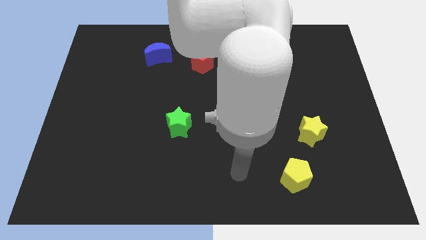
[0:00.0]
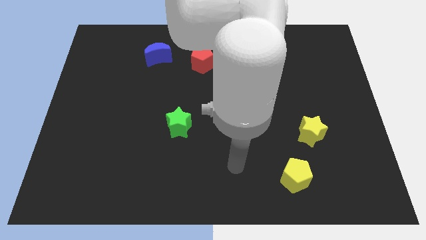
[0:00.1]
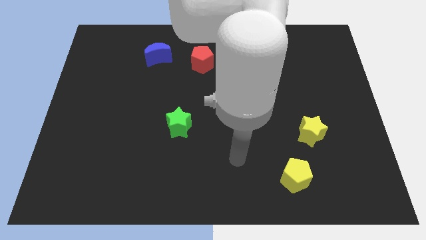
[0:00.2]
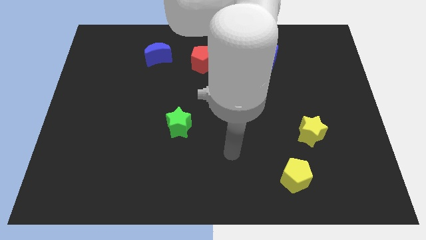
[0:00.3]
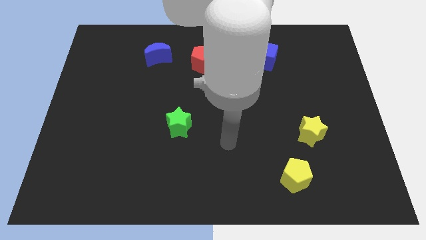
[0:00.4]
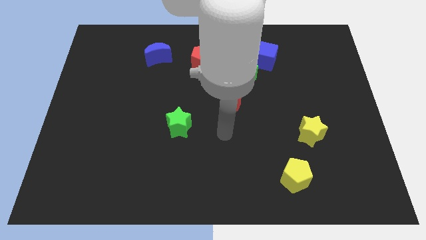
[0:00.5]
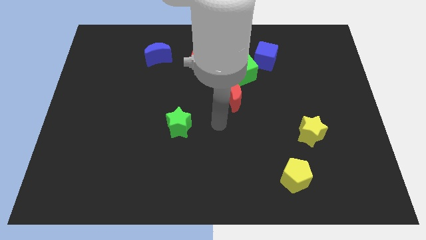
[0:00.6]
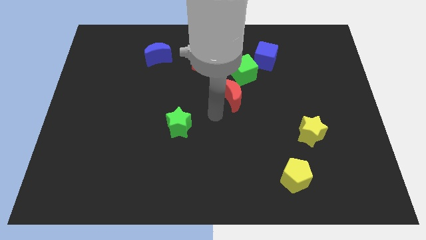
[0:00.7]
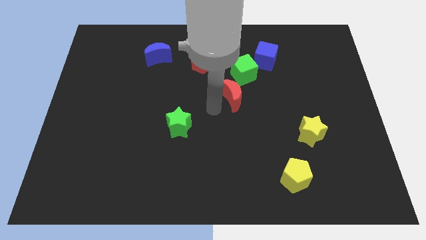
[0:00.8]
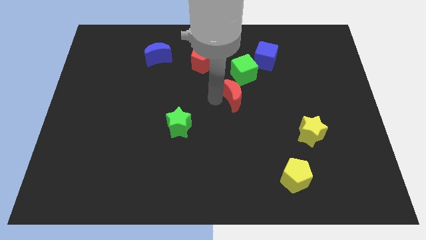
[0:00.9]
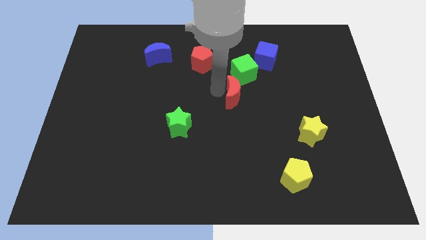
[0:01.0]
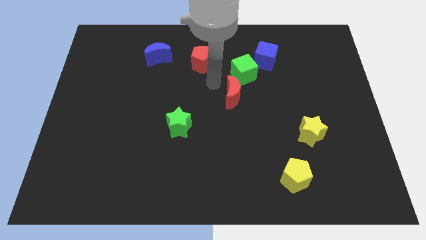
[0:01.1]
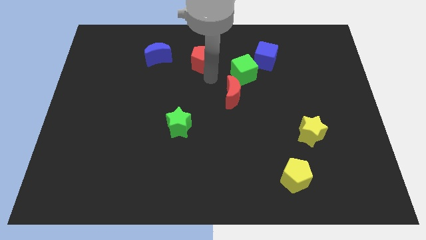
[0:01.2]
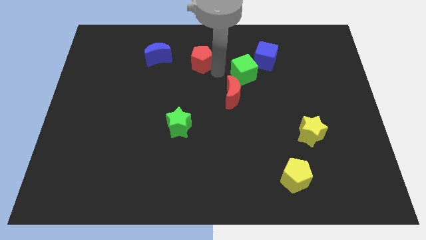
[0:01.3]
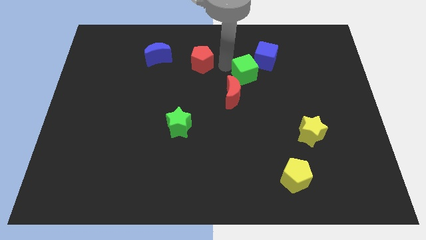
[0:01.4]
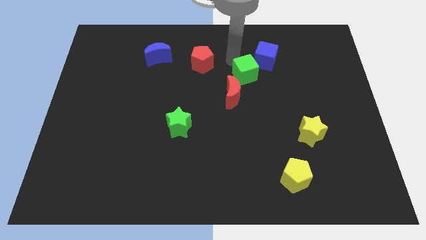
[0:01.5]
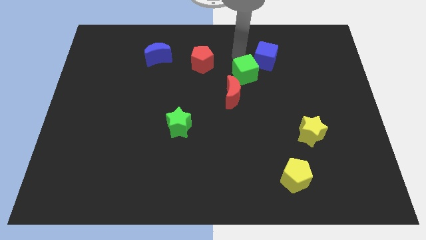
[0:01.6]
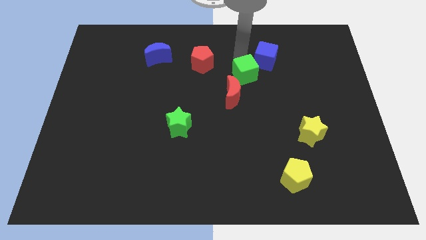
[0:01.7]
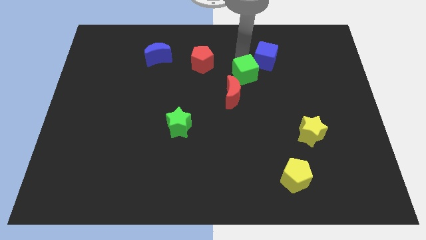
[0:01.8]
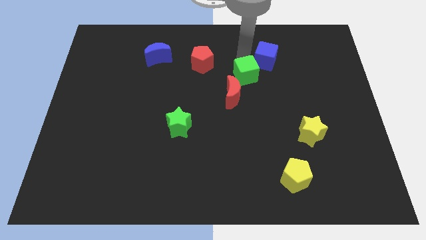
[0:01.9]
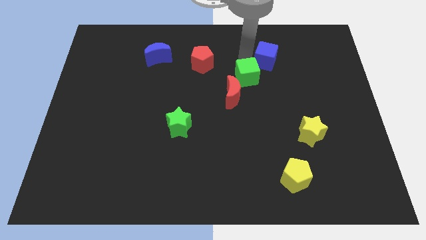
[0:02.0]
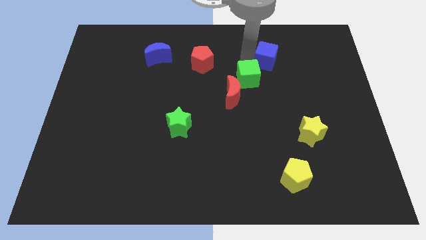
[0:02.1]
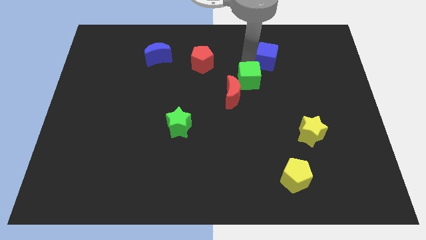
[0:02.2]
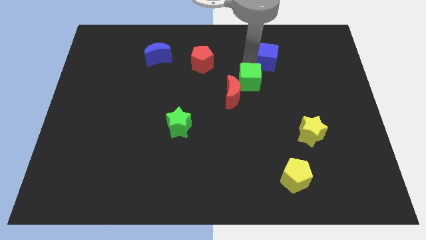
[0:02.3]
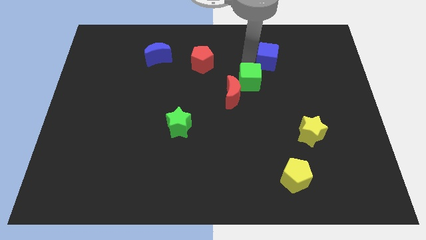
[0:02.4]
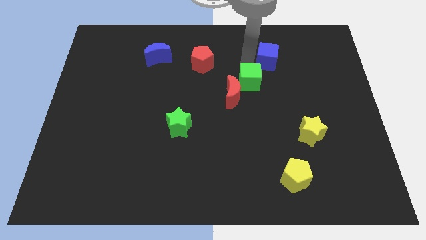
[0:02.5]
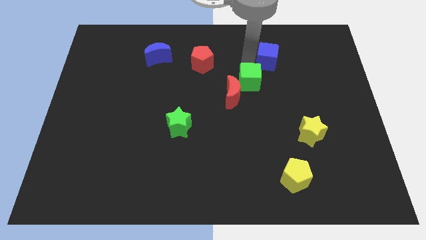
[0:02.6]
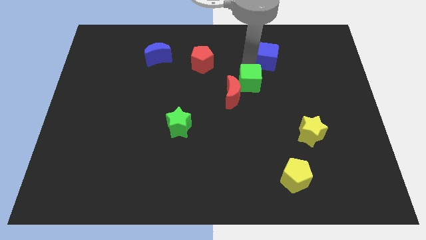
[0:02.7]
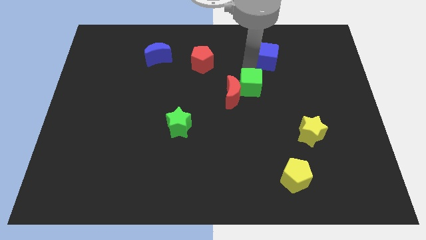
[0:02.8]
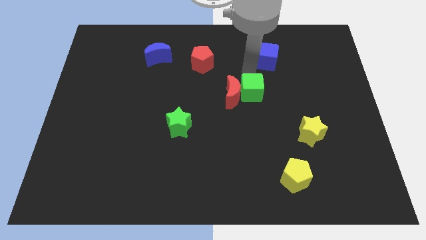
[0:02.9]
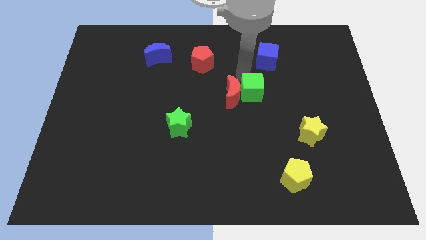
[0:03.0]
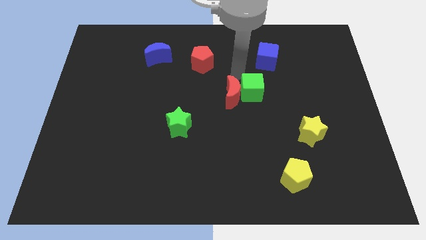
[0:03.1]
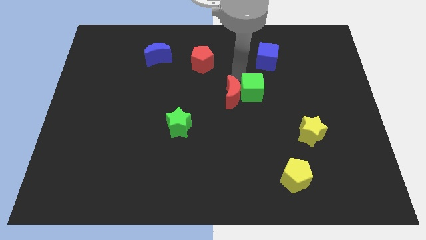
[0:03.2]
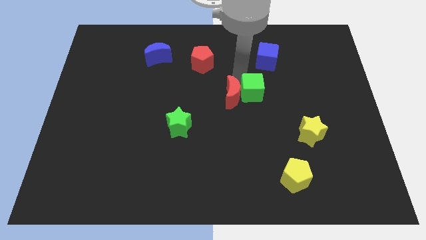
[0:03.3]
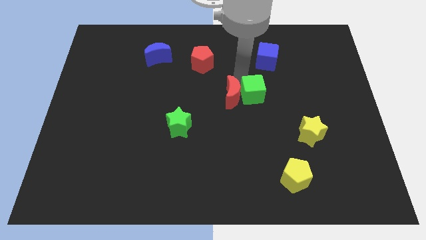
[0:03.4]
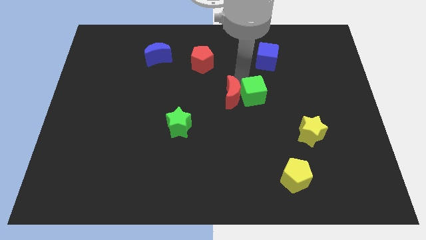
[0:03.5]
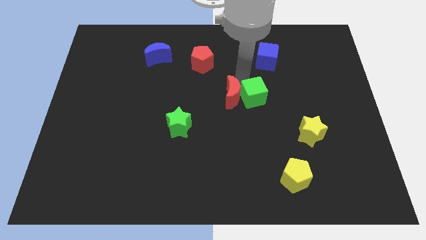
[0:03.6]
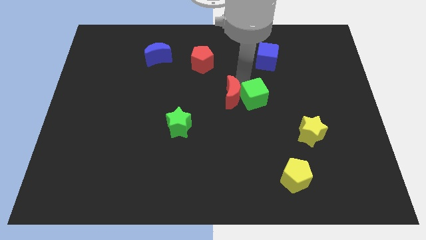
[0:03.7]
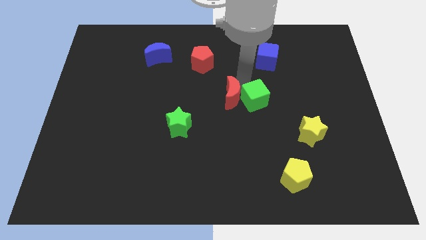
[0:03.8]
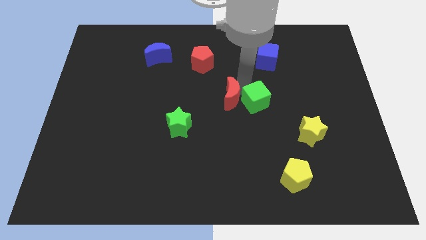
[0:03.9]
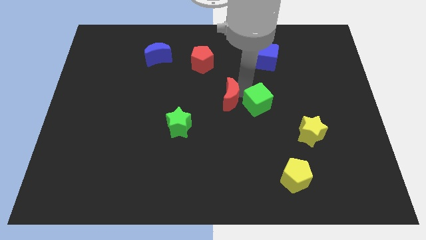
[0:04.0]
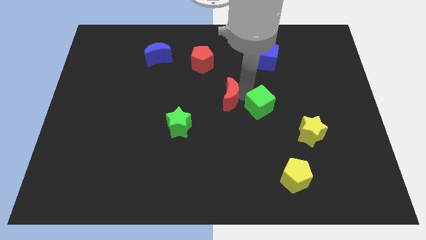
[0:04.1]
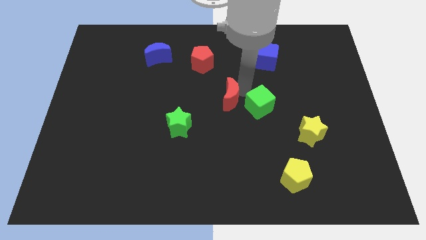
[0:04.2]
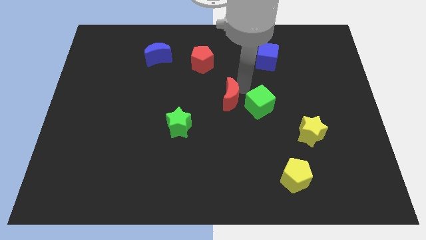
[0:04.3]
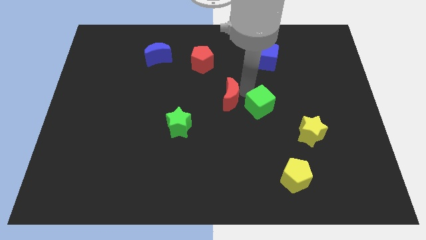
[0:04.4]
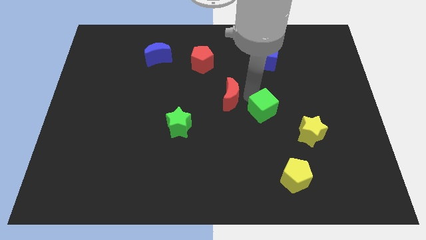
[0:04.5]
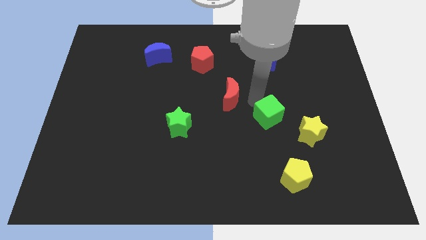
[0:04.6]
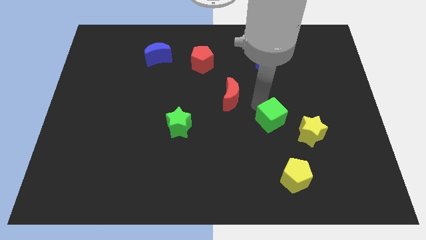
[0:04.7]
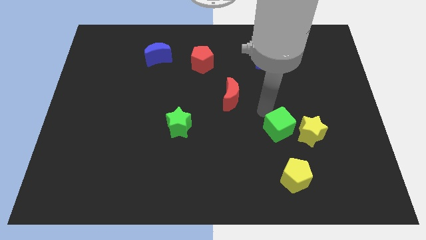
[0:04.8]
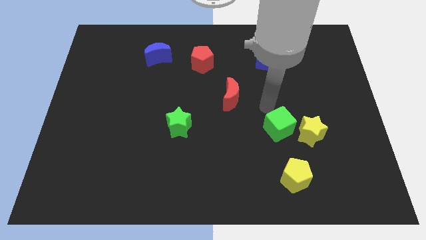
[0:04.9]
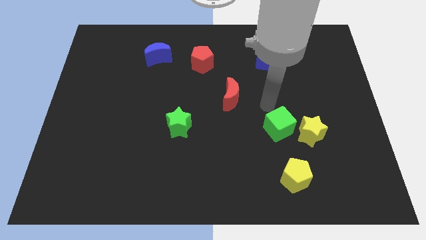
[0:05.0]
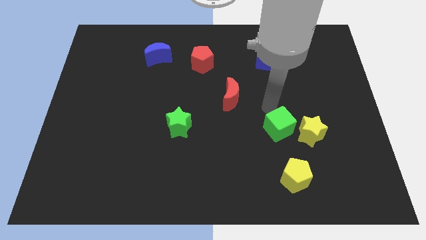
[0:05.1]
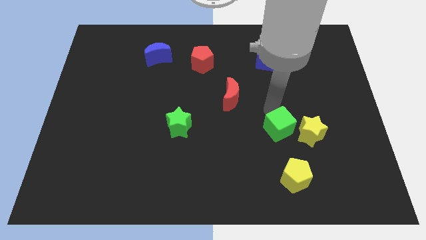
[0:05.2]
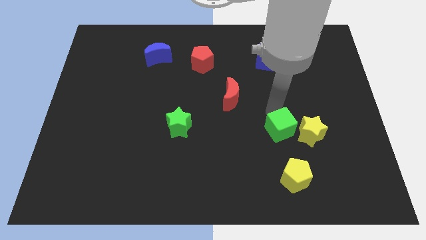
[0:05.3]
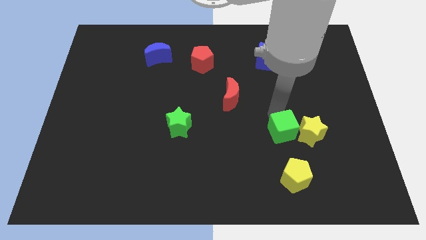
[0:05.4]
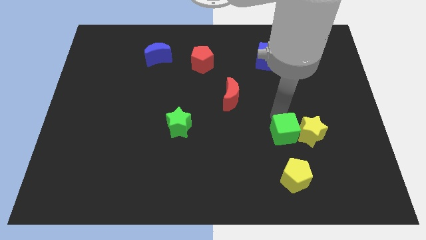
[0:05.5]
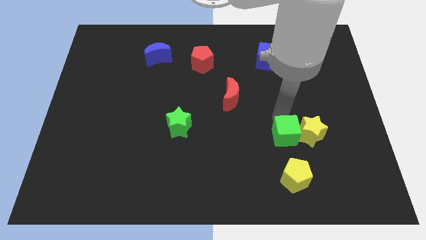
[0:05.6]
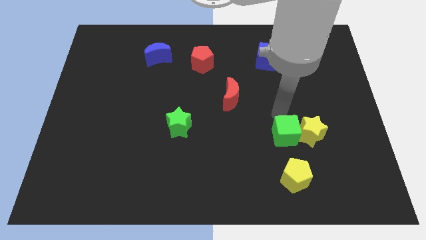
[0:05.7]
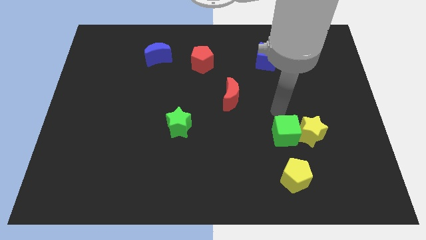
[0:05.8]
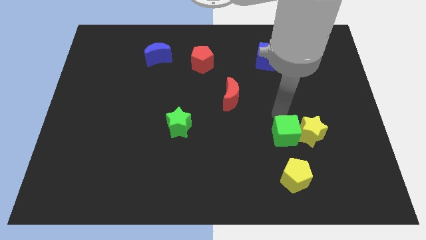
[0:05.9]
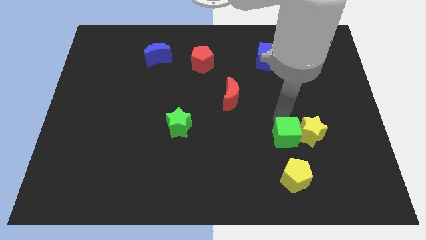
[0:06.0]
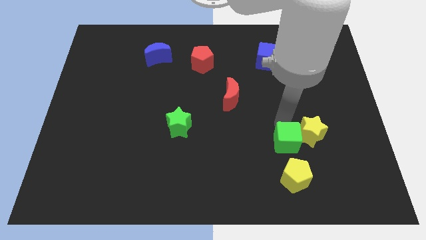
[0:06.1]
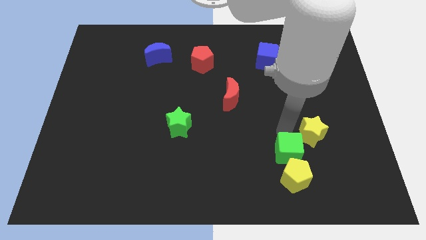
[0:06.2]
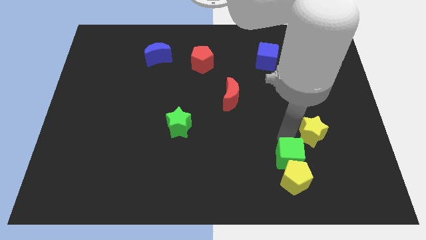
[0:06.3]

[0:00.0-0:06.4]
push the green cube next to the yellow pentagon
